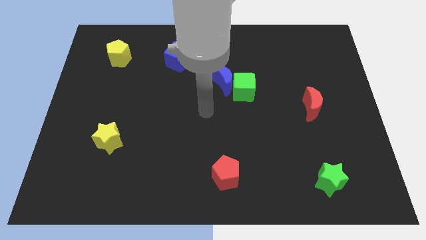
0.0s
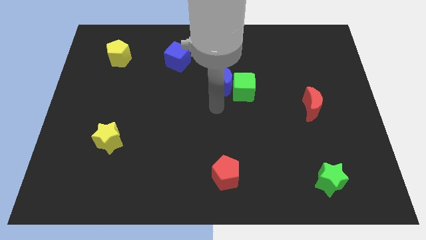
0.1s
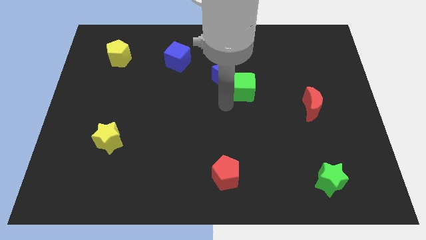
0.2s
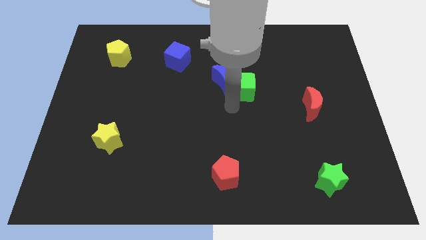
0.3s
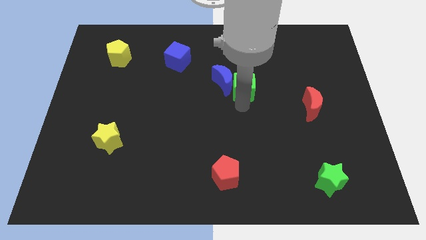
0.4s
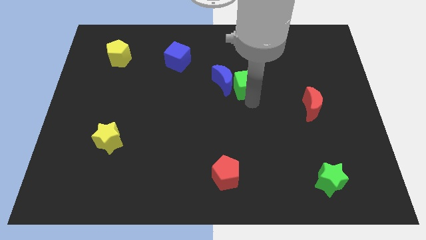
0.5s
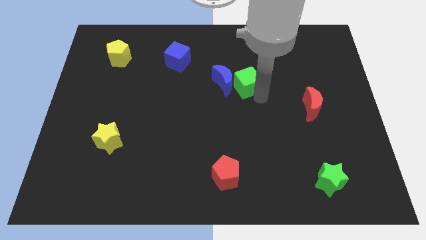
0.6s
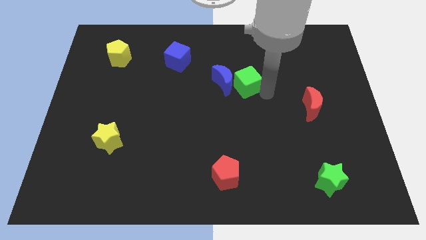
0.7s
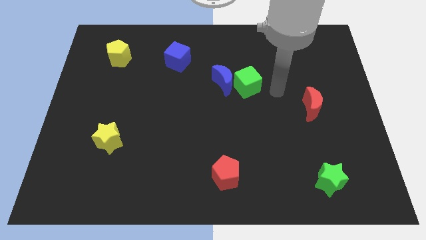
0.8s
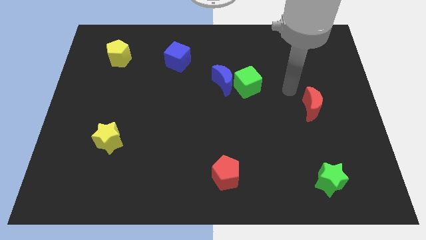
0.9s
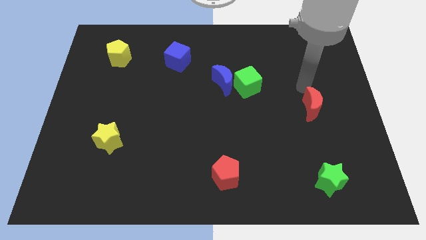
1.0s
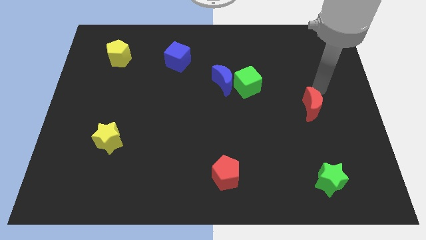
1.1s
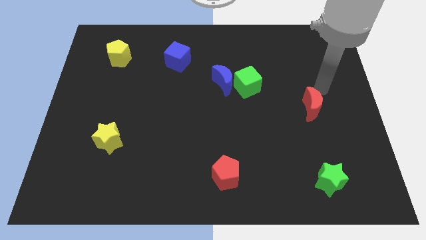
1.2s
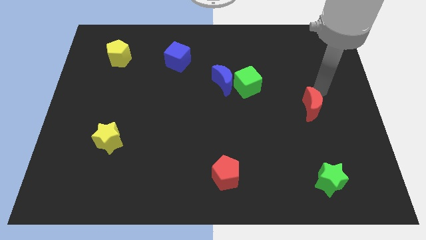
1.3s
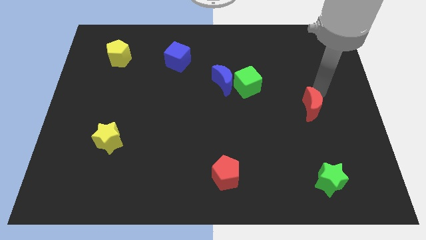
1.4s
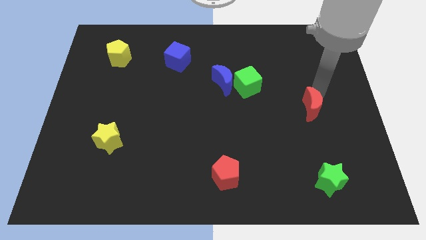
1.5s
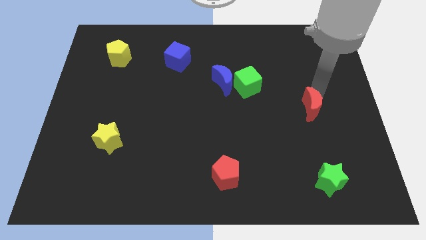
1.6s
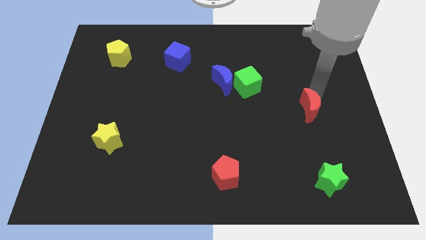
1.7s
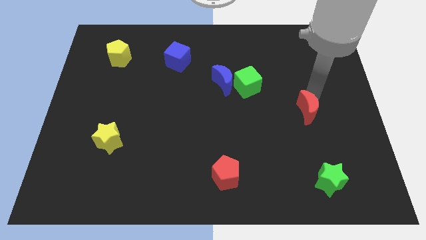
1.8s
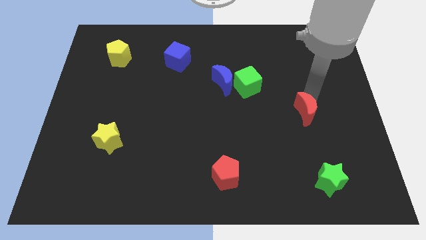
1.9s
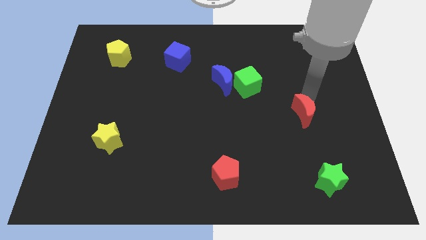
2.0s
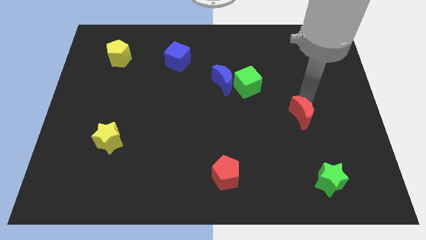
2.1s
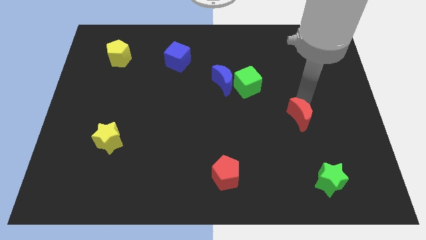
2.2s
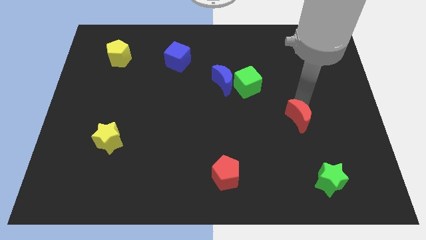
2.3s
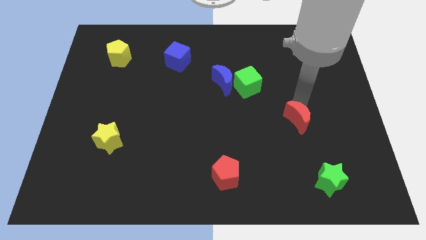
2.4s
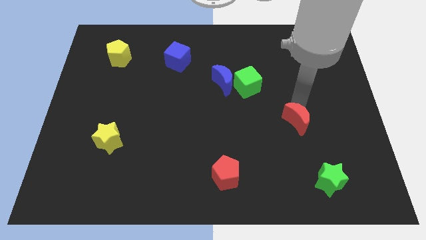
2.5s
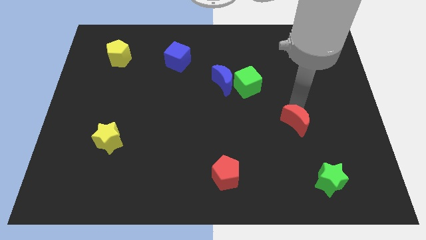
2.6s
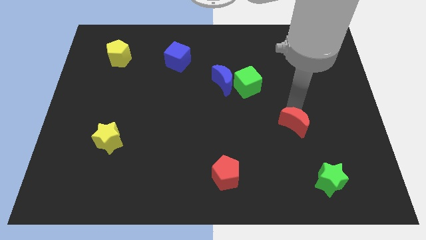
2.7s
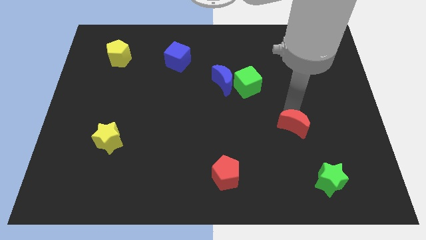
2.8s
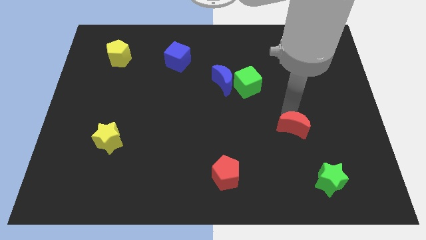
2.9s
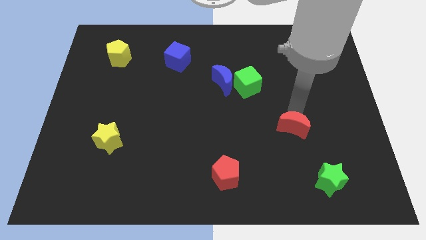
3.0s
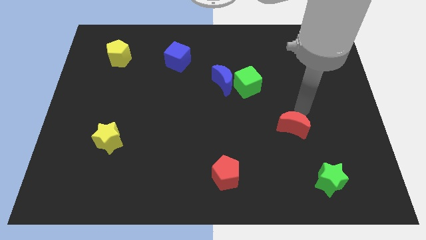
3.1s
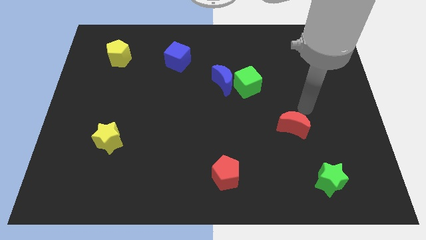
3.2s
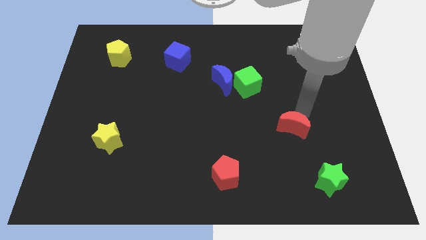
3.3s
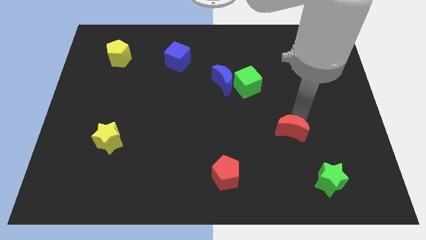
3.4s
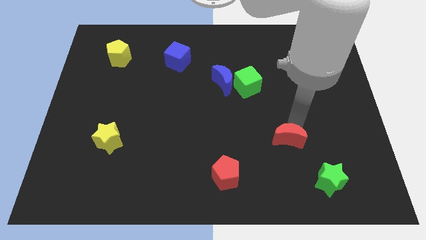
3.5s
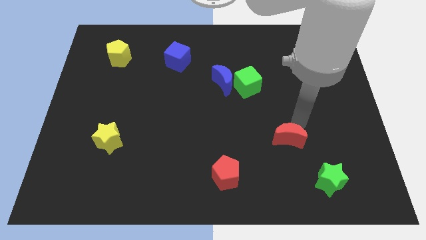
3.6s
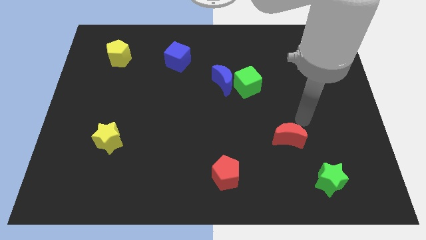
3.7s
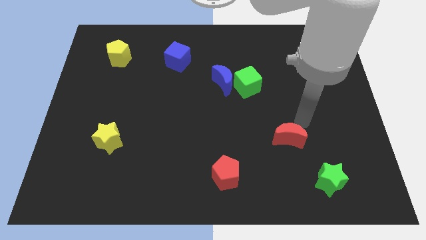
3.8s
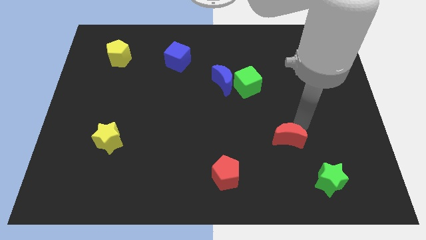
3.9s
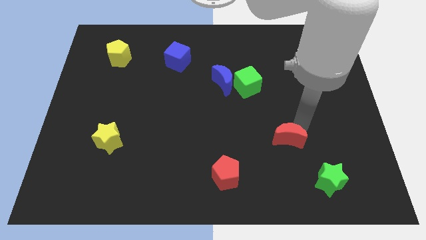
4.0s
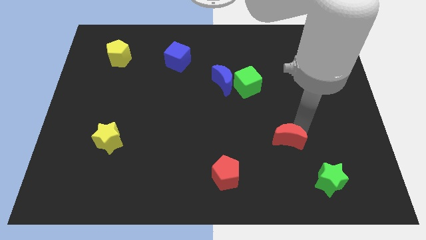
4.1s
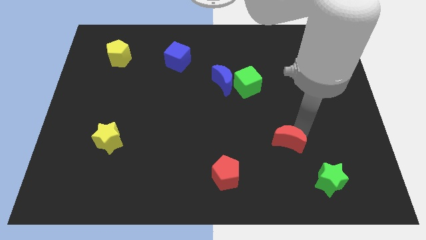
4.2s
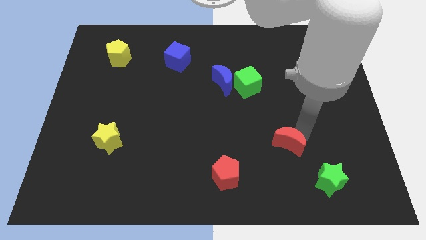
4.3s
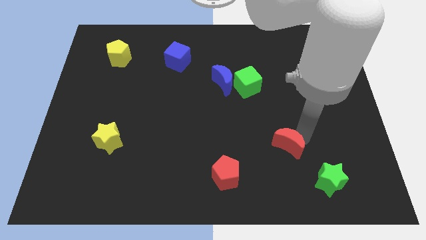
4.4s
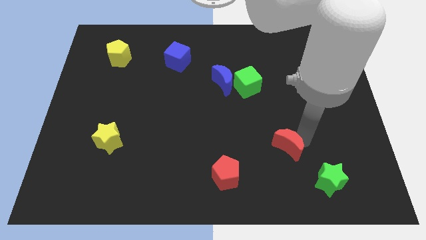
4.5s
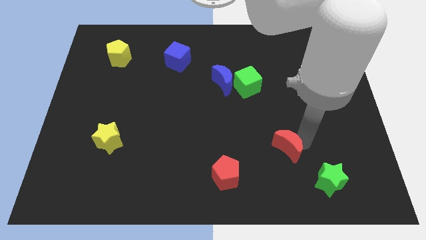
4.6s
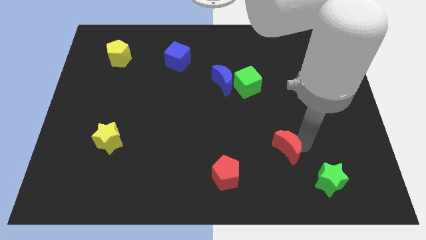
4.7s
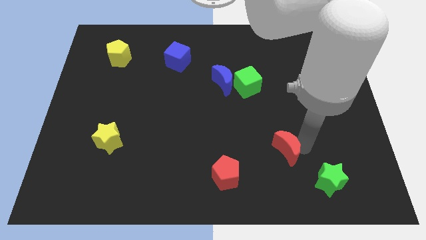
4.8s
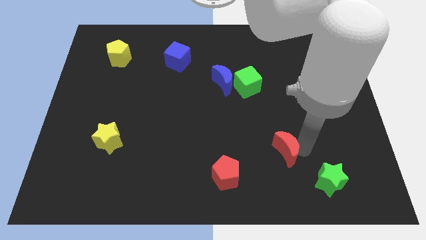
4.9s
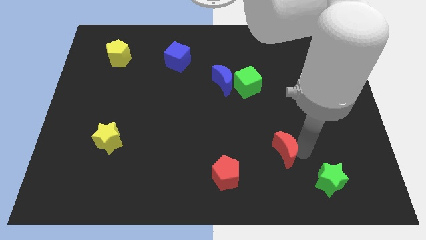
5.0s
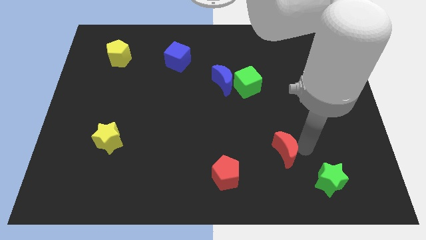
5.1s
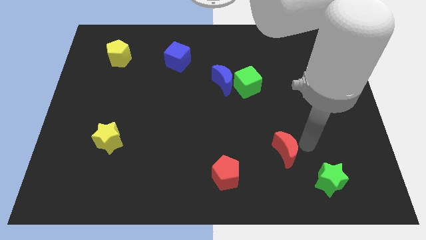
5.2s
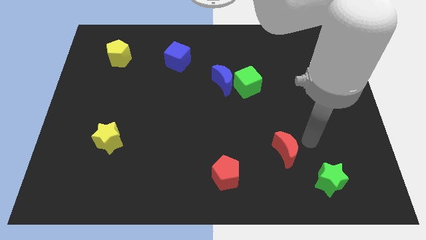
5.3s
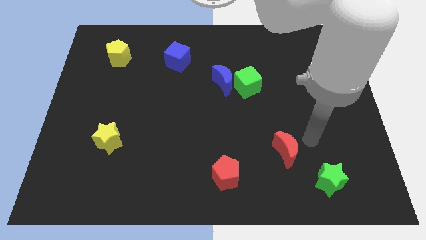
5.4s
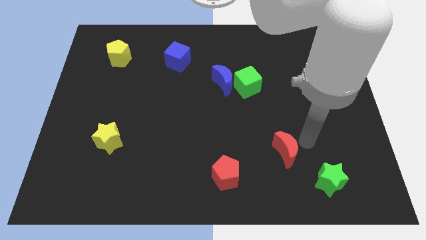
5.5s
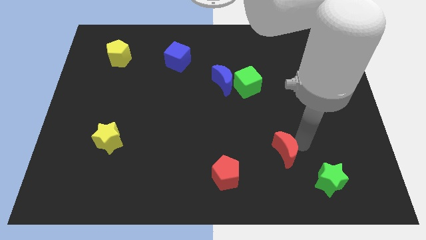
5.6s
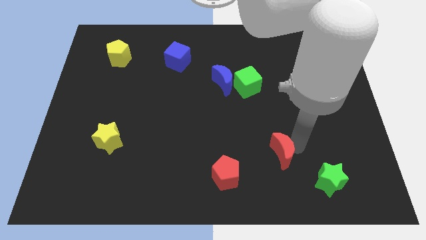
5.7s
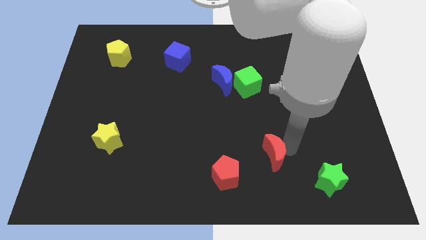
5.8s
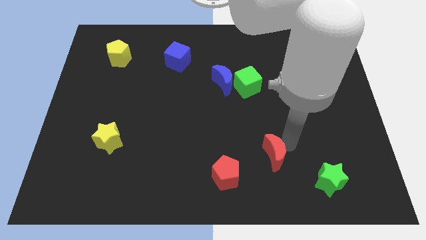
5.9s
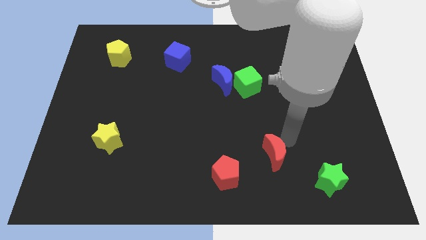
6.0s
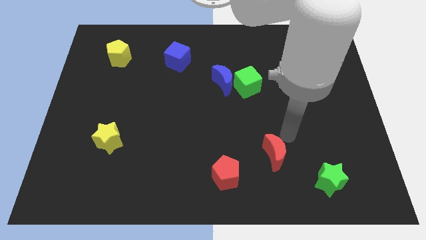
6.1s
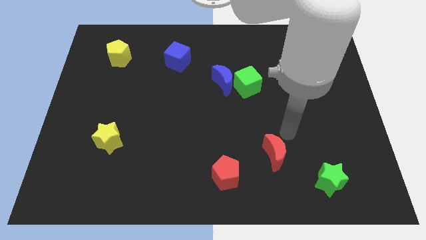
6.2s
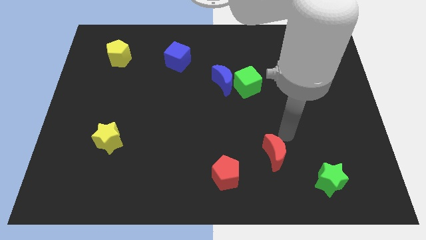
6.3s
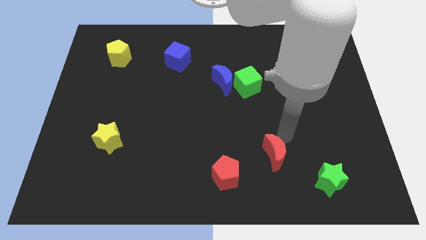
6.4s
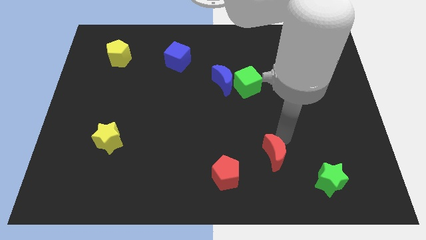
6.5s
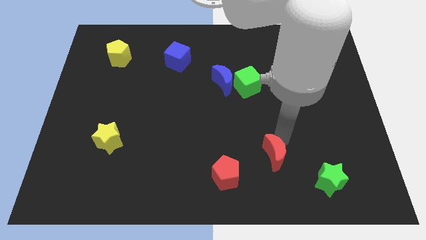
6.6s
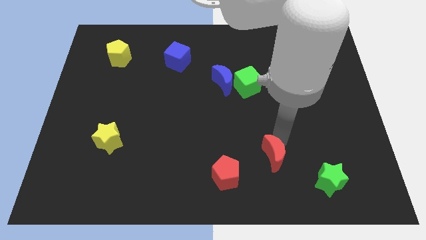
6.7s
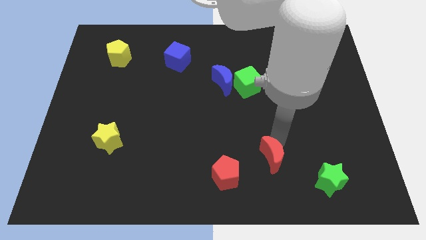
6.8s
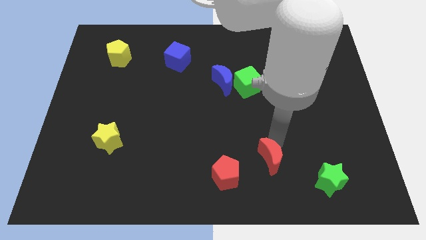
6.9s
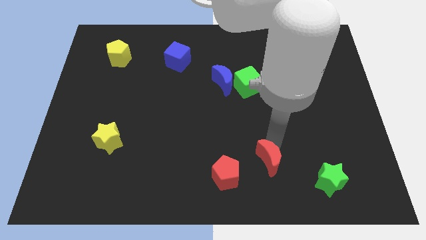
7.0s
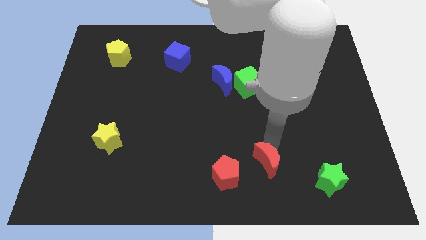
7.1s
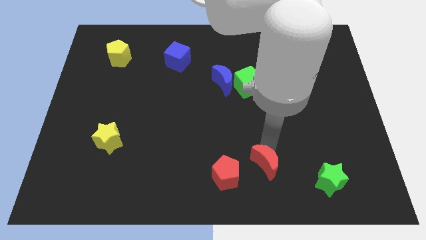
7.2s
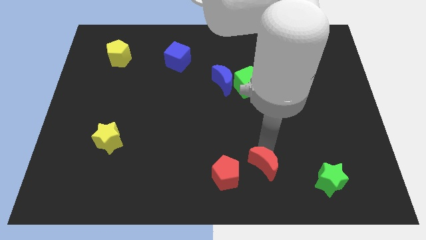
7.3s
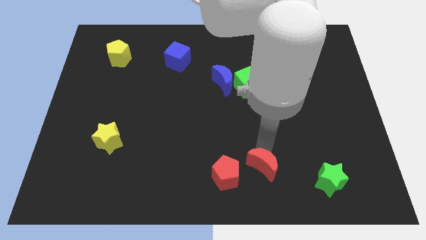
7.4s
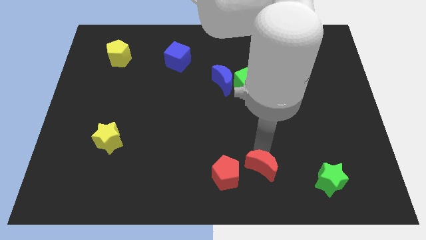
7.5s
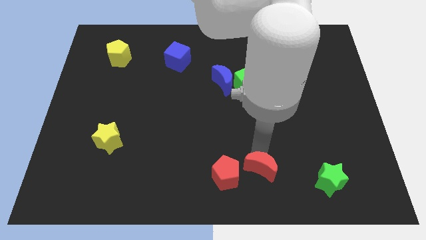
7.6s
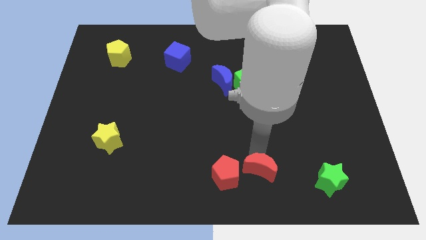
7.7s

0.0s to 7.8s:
move the red moon to the bottom
